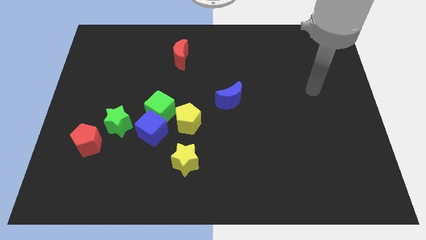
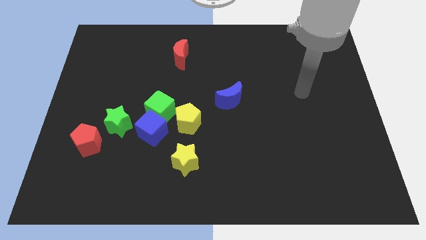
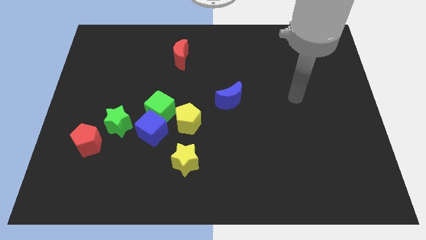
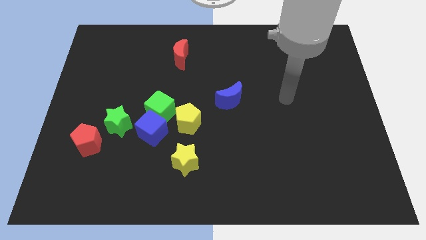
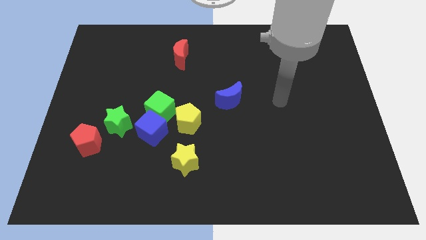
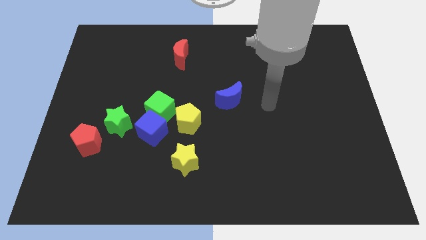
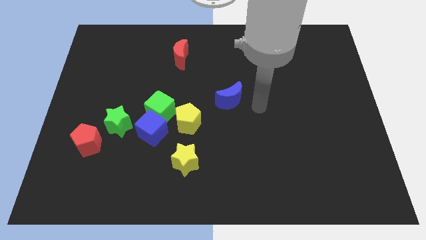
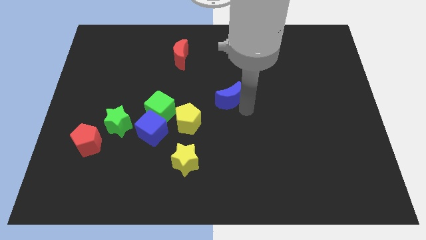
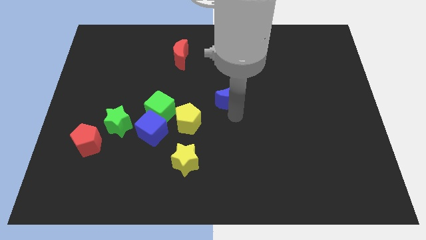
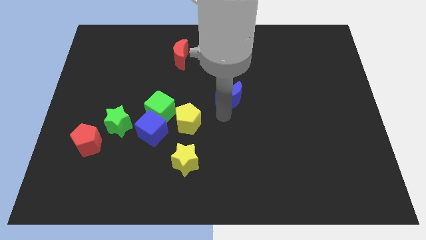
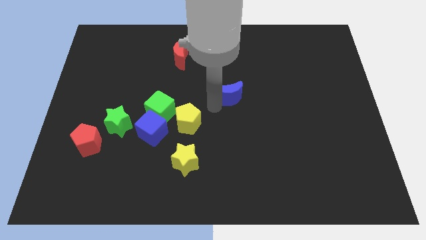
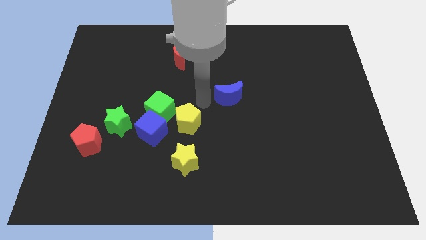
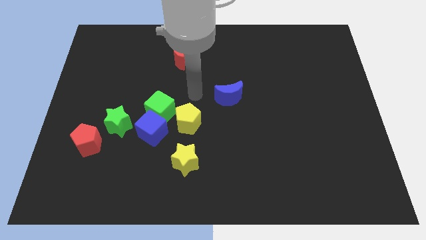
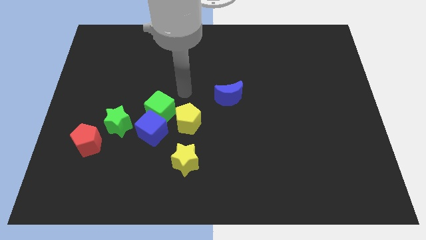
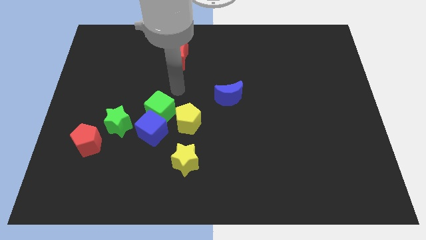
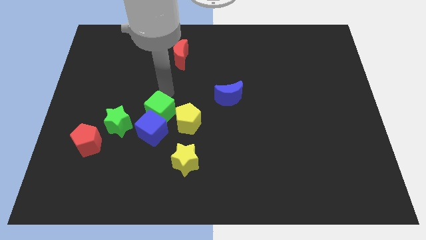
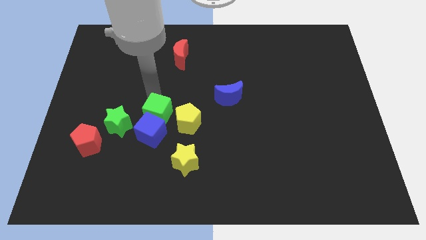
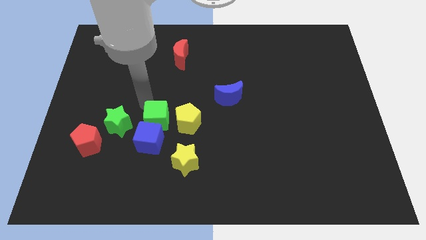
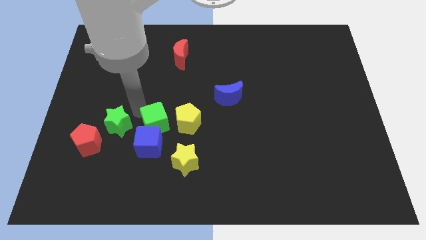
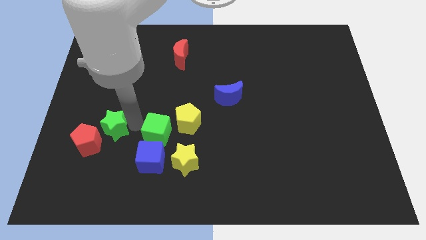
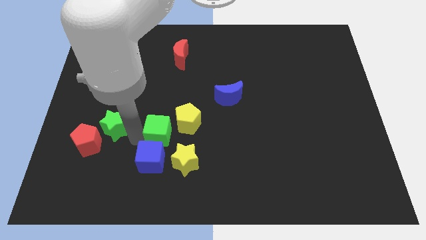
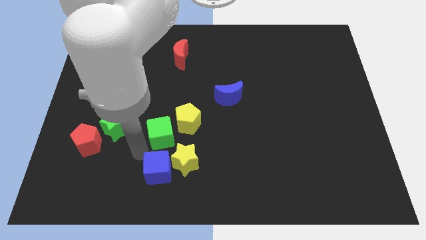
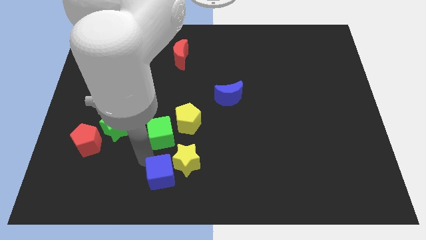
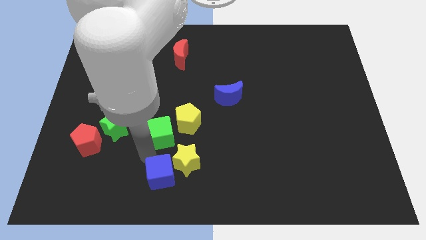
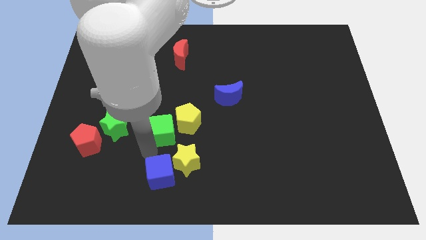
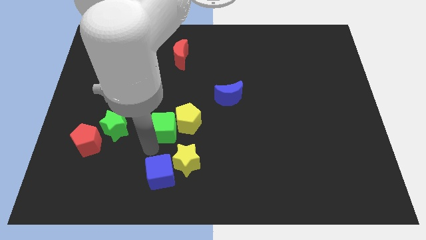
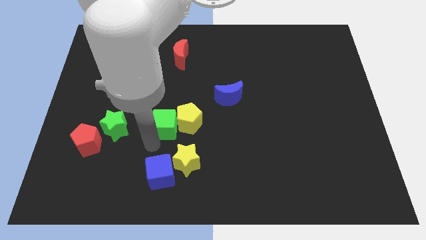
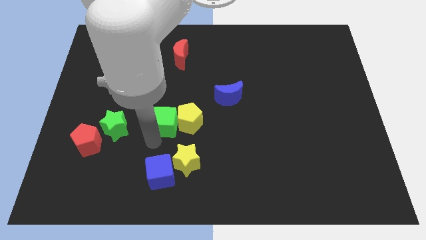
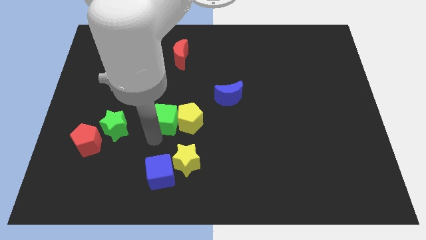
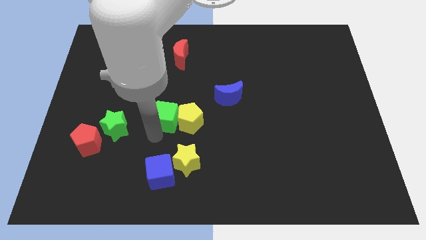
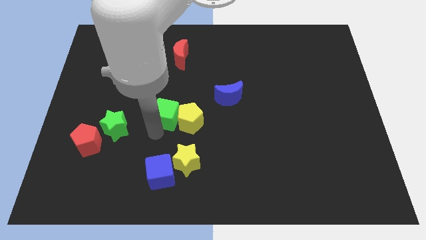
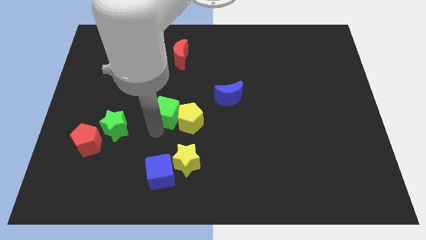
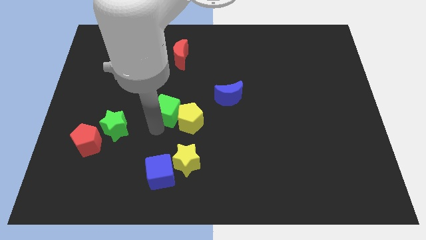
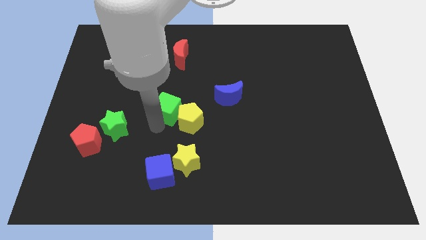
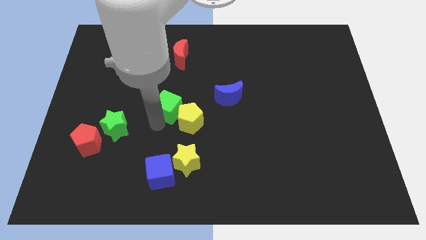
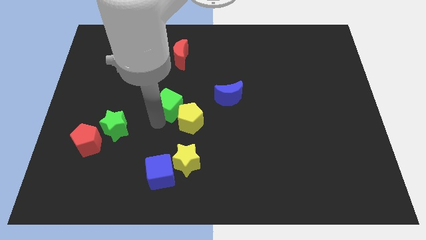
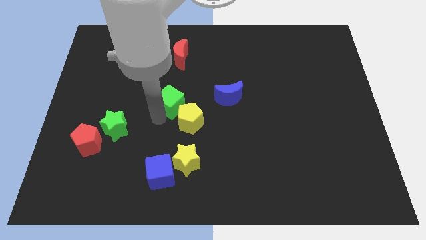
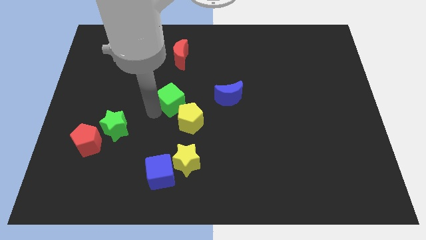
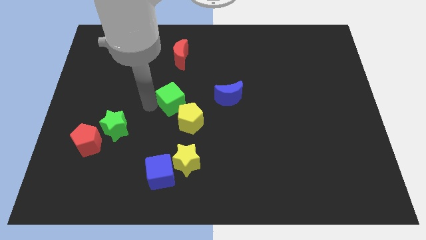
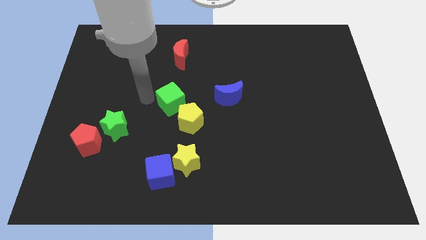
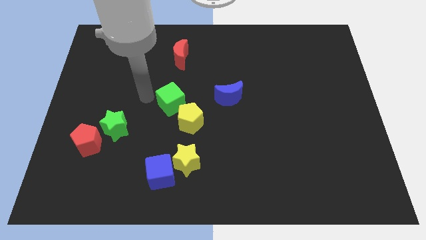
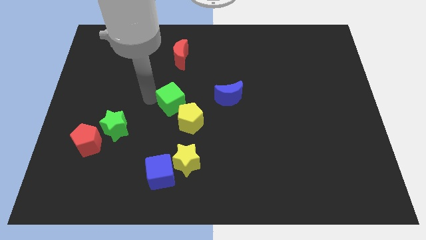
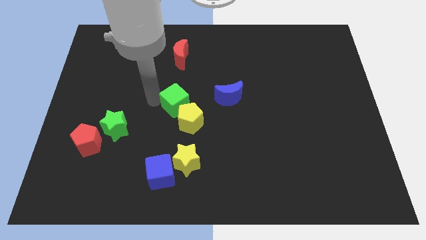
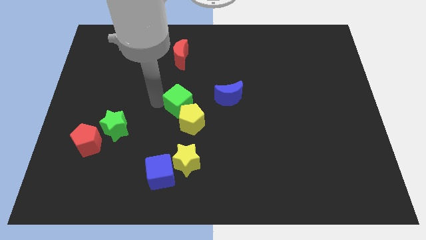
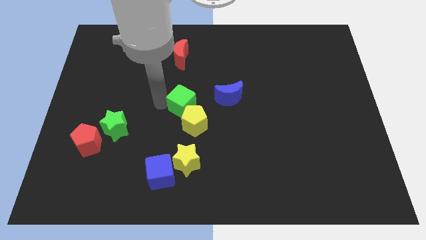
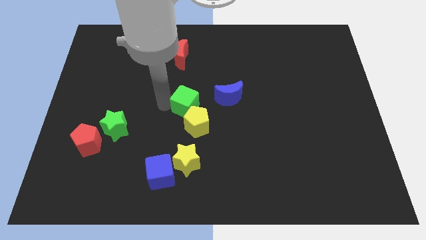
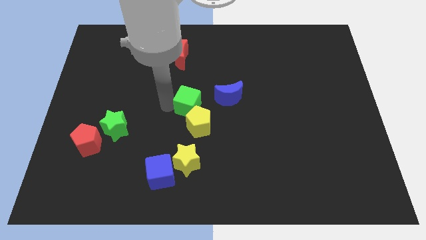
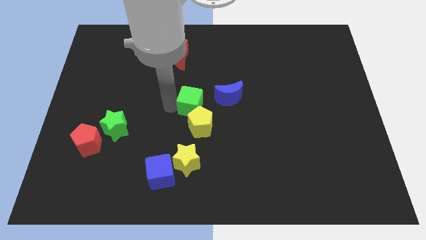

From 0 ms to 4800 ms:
push the green cube right somewhat

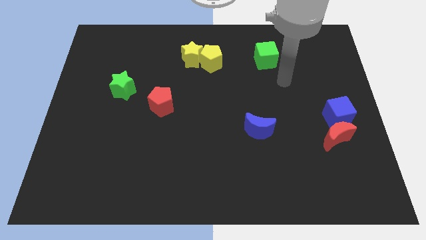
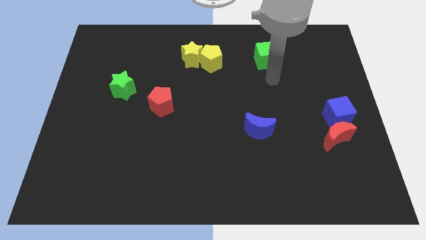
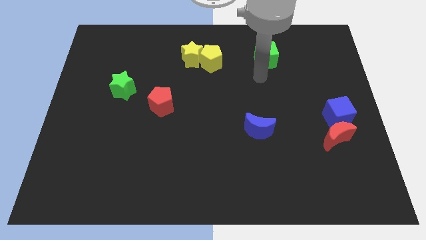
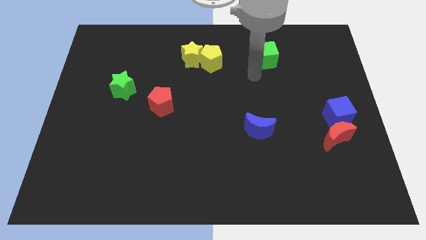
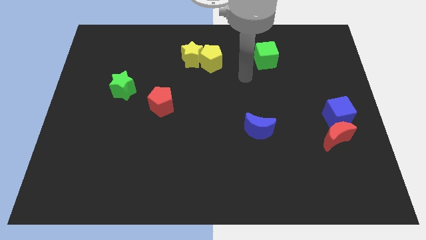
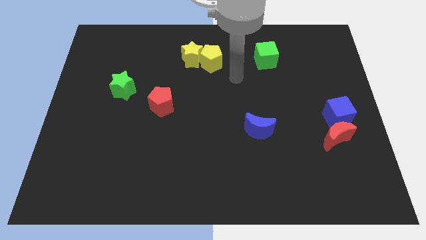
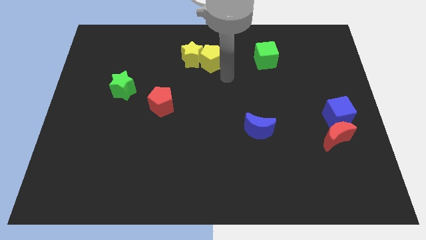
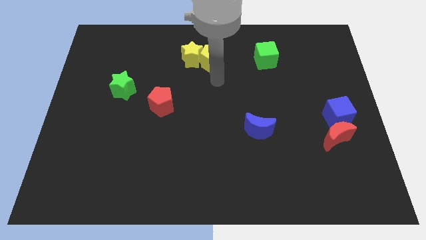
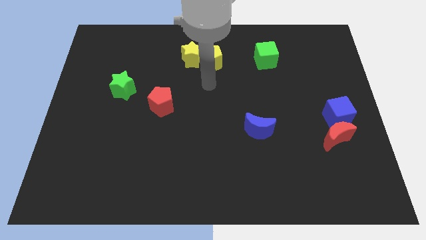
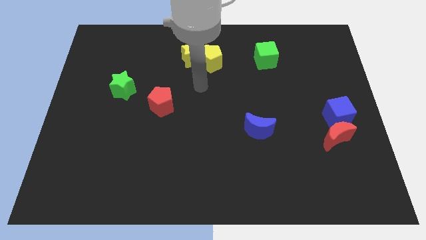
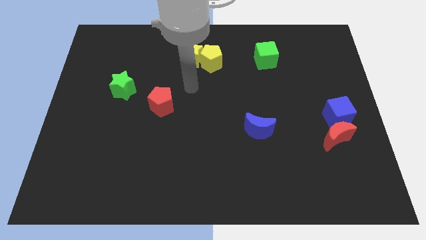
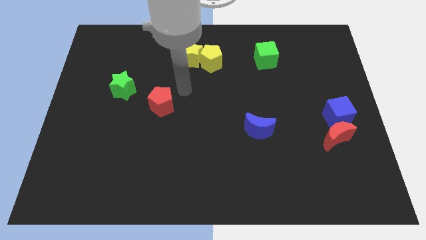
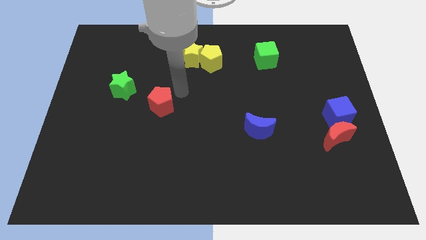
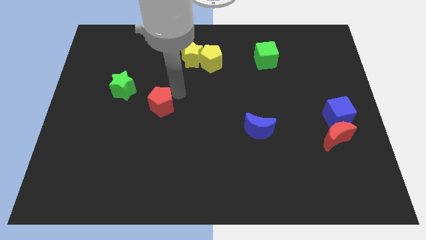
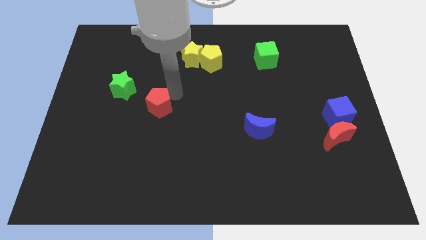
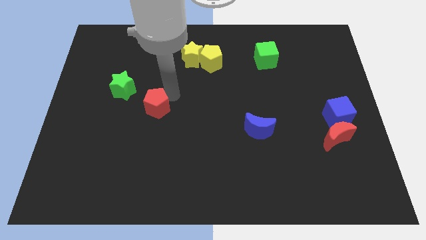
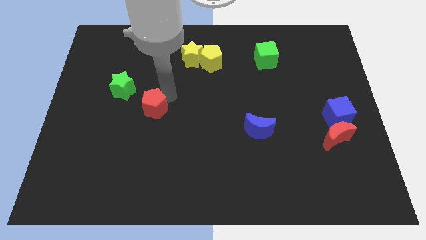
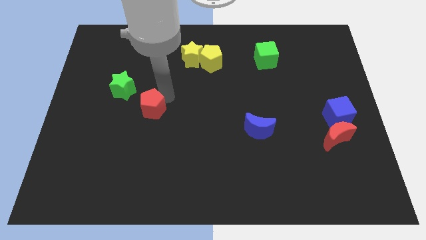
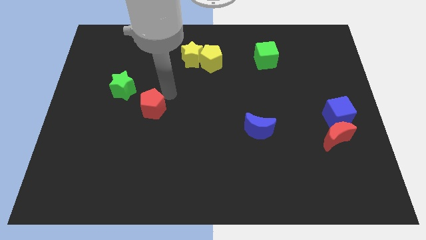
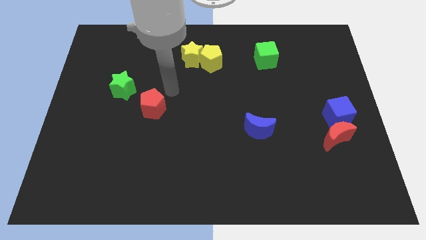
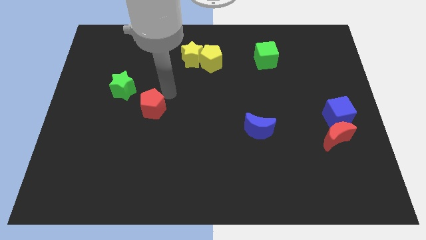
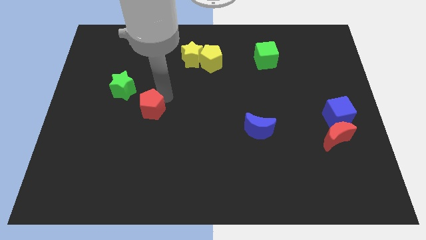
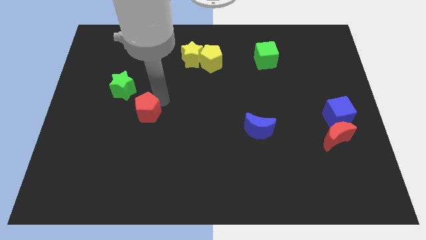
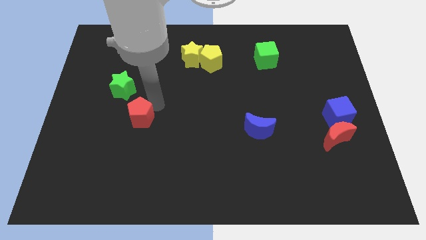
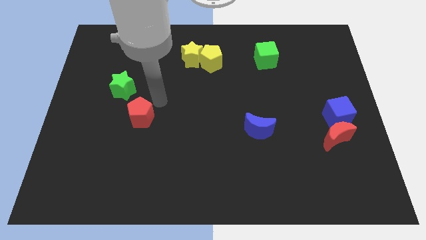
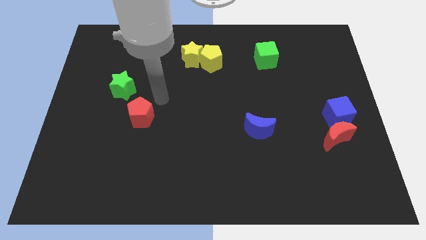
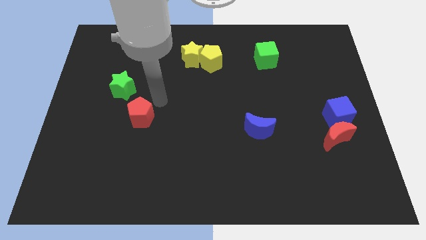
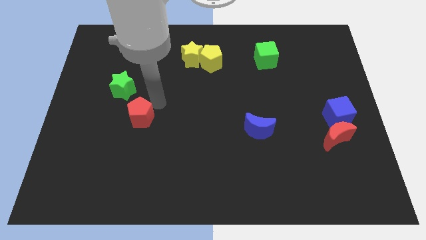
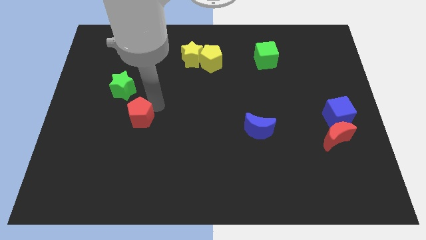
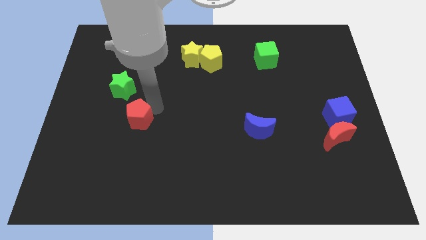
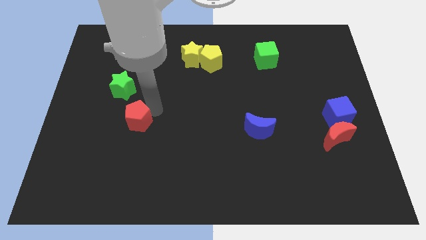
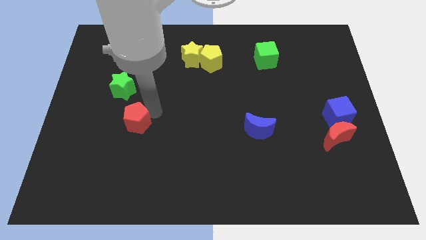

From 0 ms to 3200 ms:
slide the red pentagon a little diagonally downwards and left

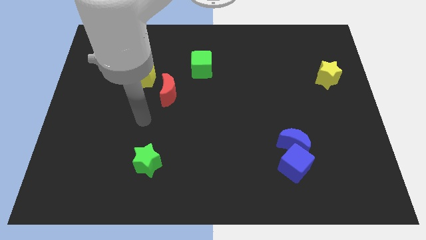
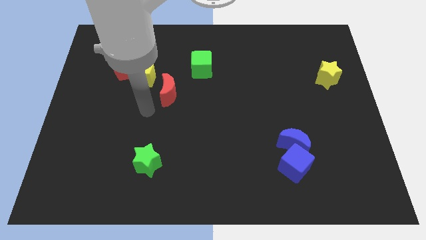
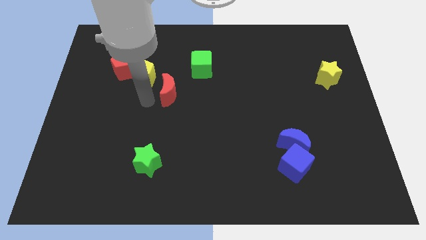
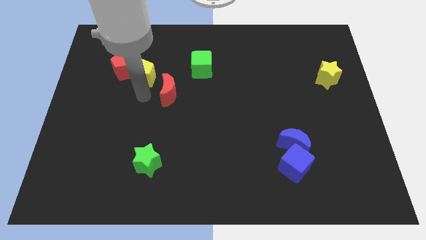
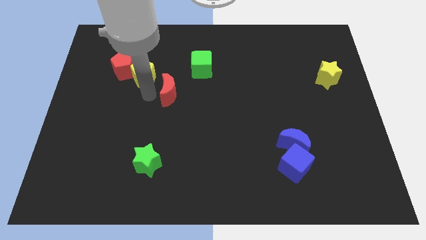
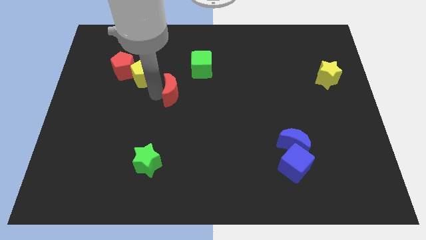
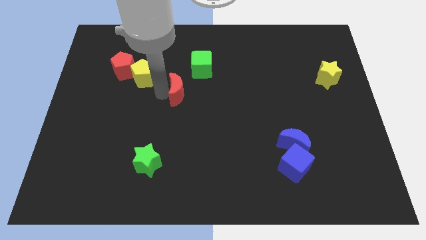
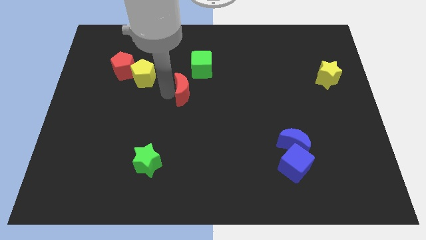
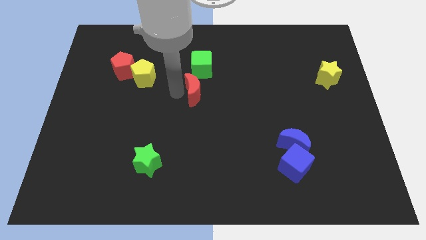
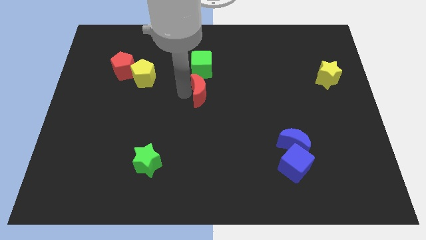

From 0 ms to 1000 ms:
move the red moon right a little
